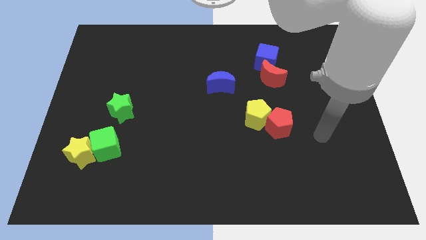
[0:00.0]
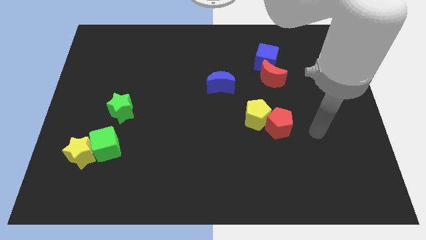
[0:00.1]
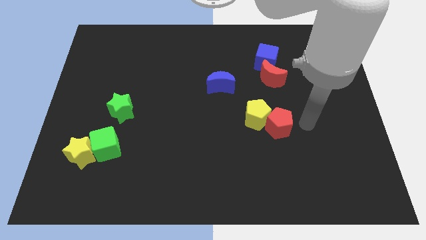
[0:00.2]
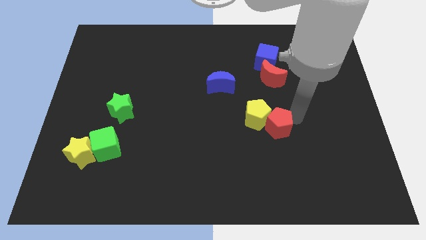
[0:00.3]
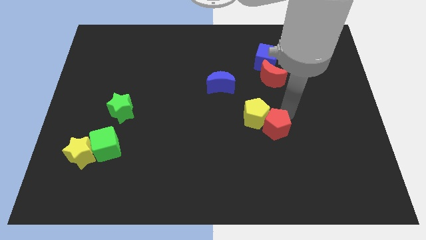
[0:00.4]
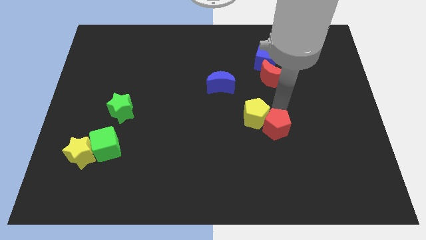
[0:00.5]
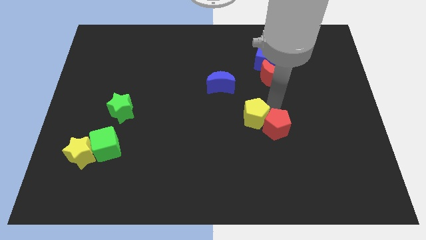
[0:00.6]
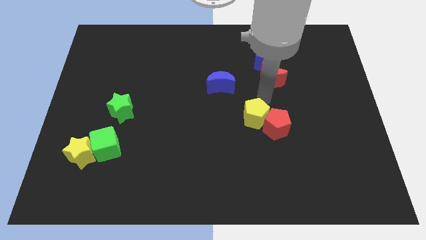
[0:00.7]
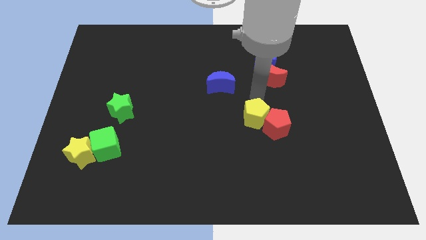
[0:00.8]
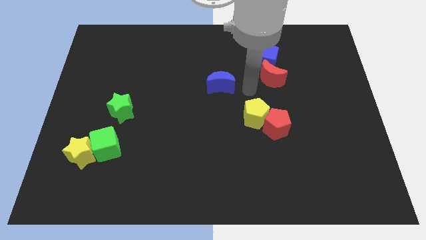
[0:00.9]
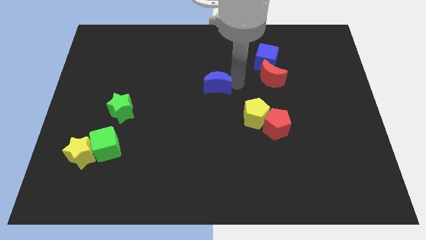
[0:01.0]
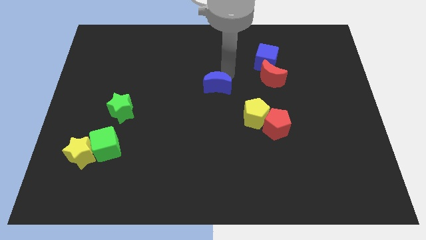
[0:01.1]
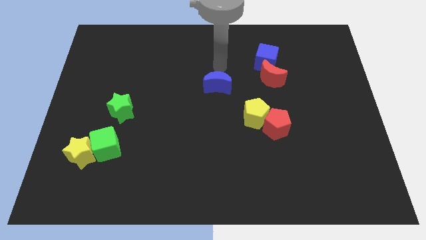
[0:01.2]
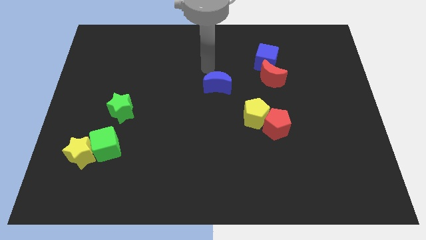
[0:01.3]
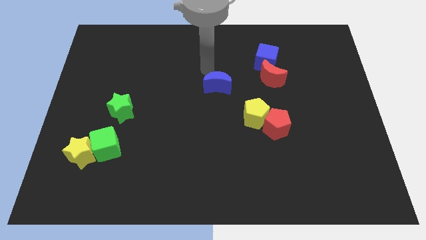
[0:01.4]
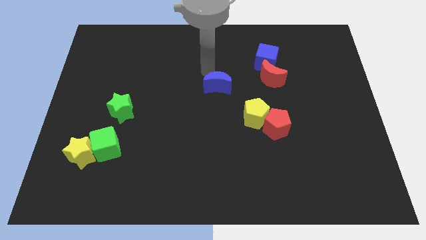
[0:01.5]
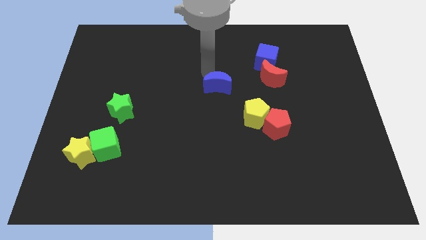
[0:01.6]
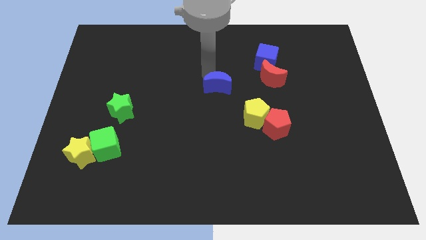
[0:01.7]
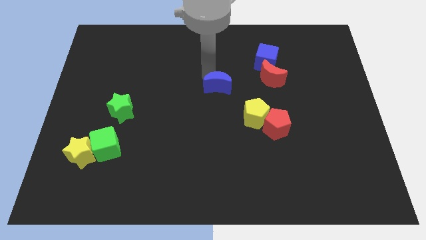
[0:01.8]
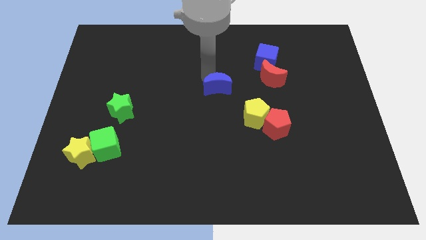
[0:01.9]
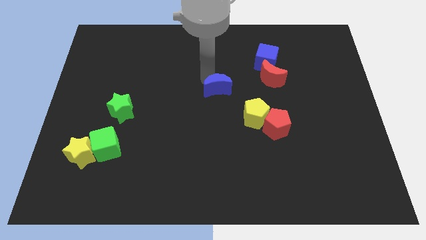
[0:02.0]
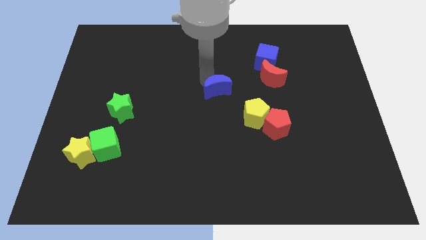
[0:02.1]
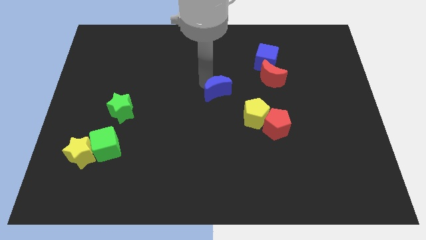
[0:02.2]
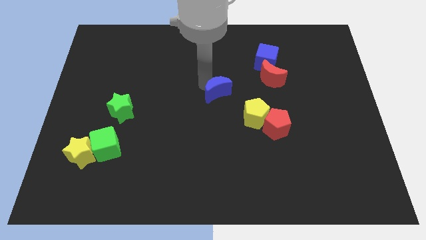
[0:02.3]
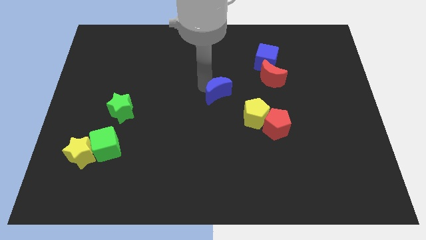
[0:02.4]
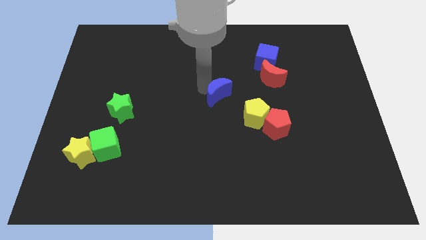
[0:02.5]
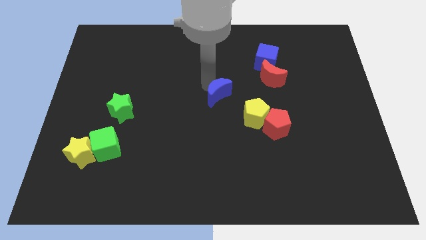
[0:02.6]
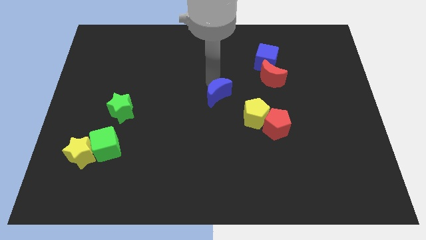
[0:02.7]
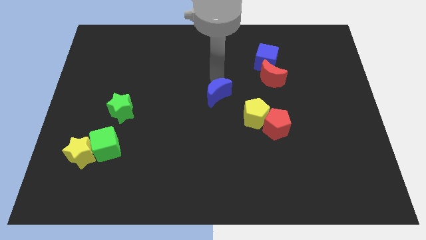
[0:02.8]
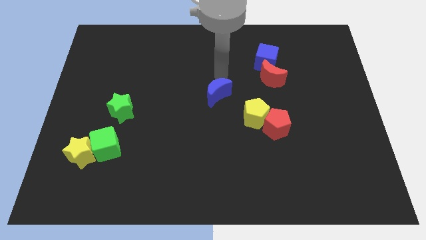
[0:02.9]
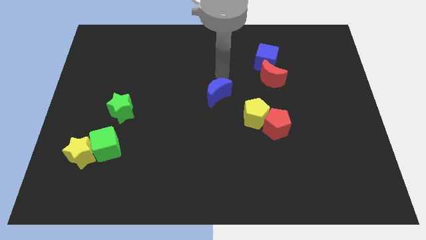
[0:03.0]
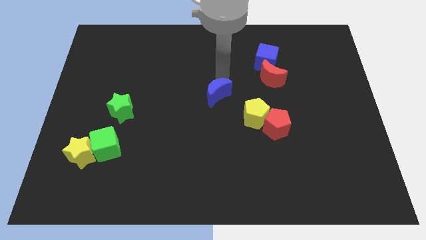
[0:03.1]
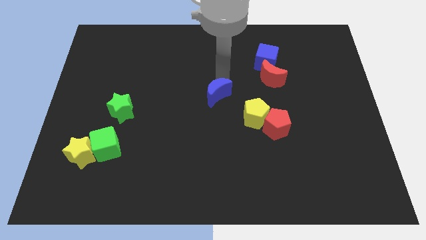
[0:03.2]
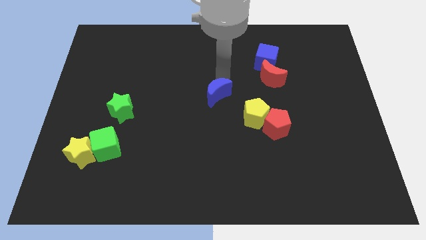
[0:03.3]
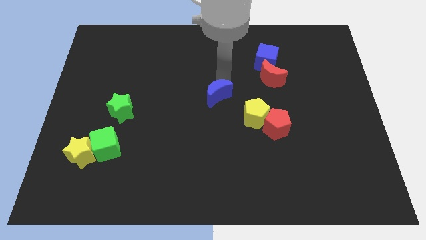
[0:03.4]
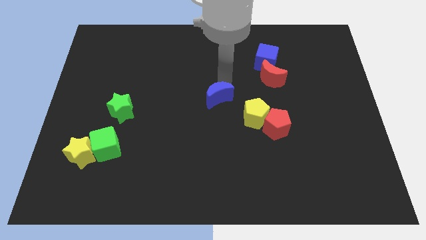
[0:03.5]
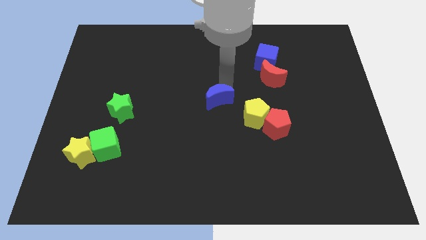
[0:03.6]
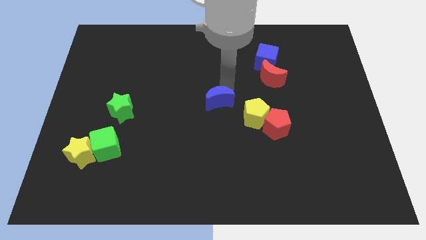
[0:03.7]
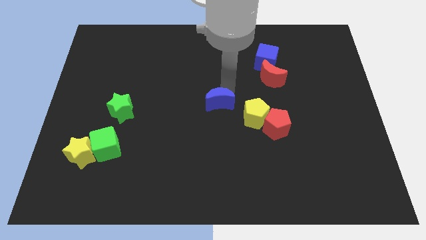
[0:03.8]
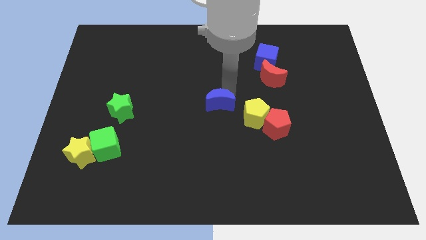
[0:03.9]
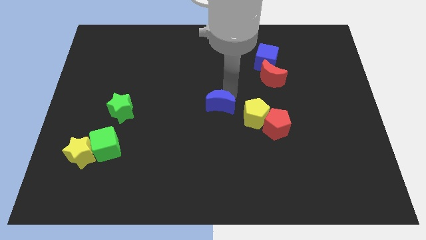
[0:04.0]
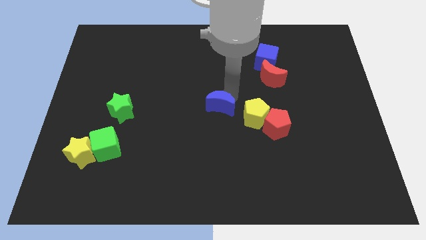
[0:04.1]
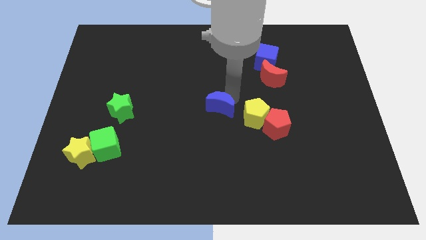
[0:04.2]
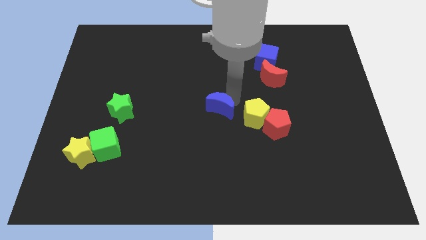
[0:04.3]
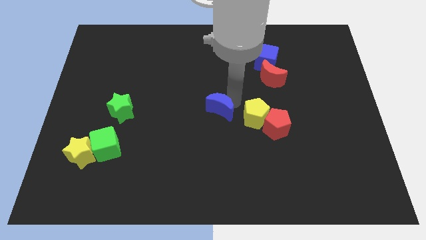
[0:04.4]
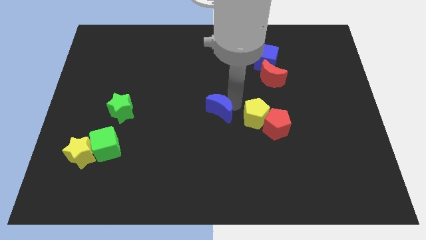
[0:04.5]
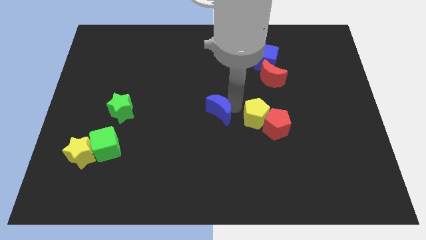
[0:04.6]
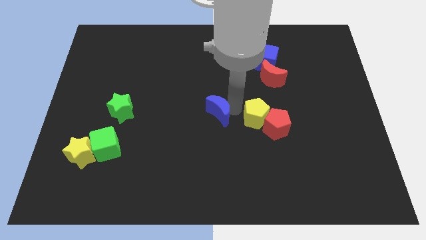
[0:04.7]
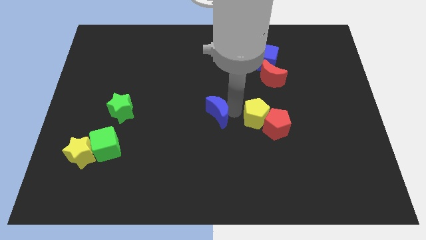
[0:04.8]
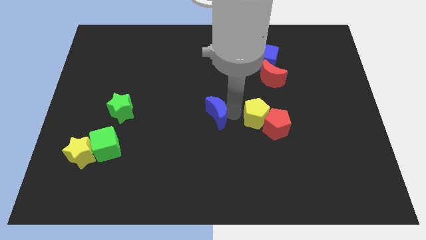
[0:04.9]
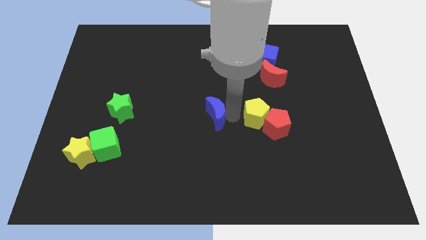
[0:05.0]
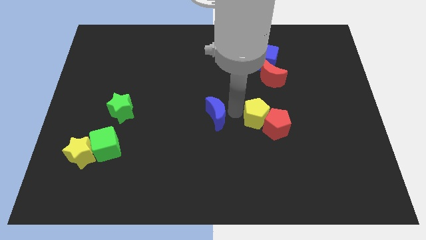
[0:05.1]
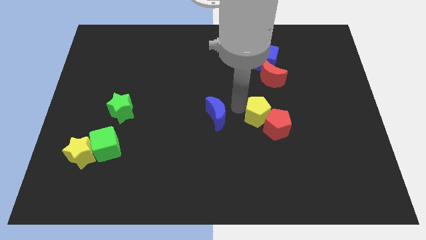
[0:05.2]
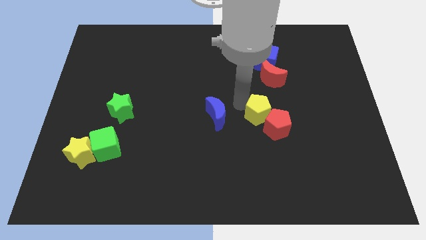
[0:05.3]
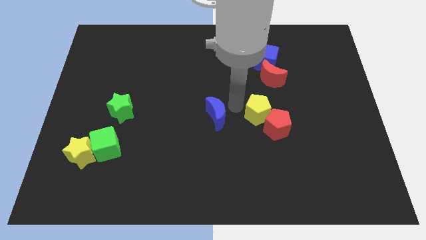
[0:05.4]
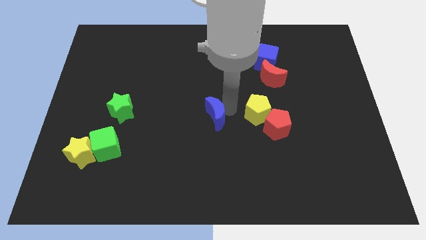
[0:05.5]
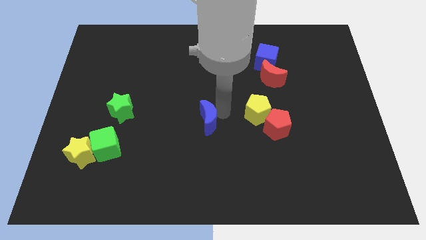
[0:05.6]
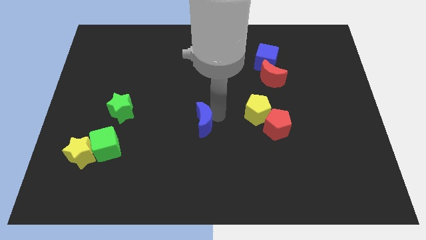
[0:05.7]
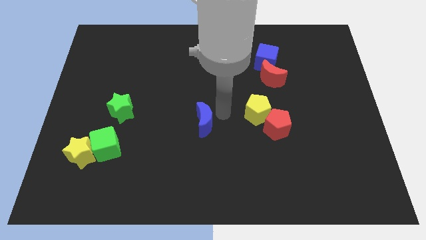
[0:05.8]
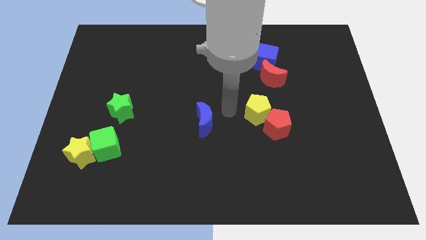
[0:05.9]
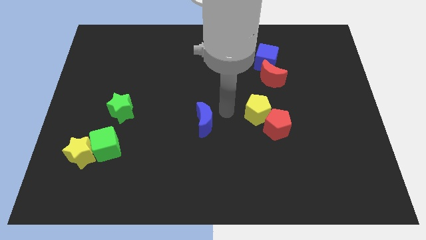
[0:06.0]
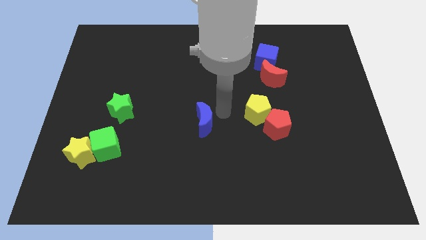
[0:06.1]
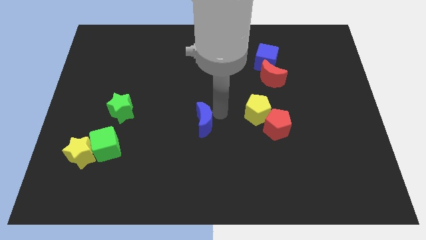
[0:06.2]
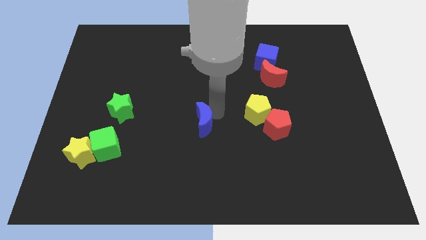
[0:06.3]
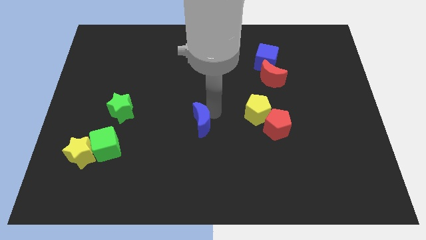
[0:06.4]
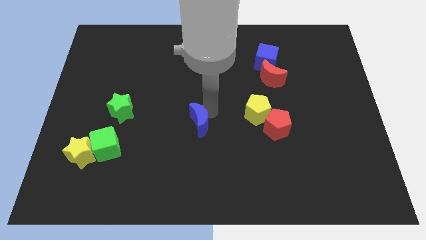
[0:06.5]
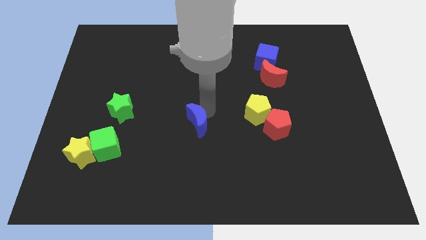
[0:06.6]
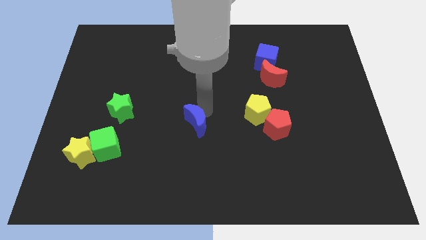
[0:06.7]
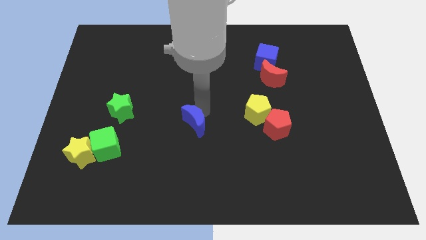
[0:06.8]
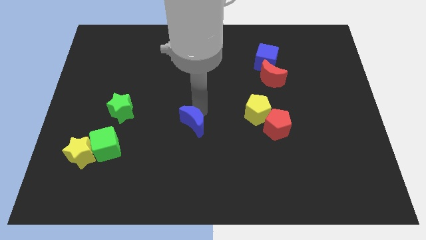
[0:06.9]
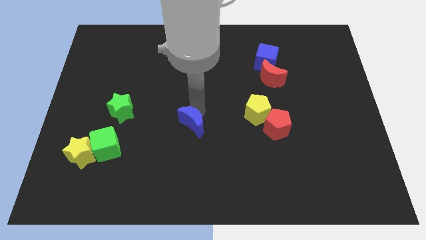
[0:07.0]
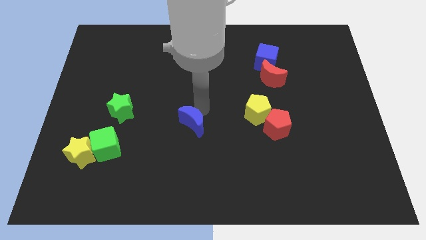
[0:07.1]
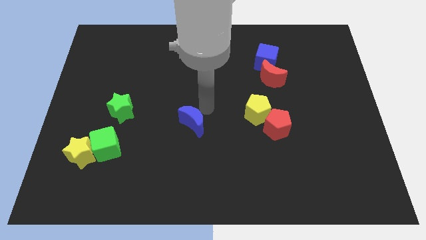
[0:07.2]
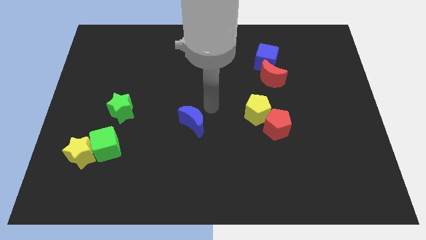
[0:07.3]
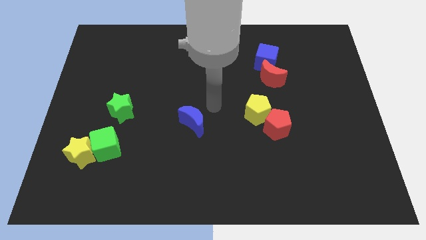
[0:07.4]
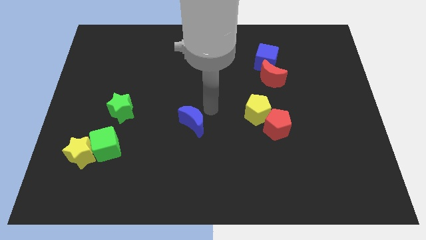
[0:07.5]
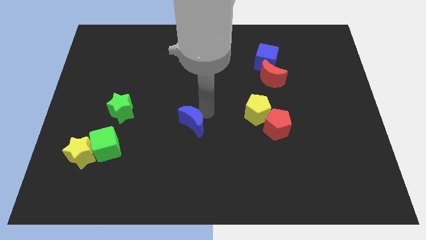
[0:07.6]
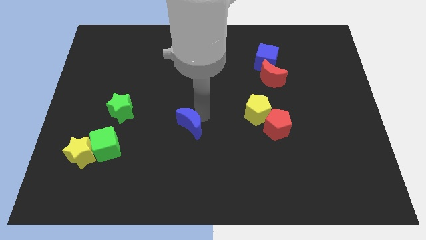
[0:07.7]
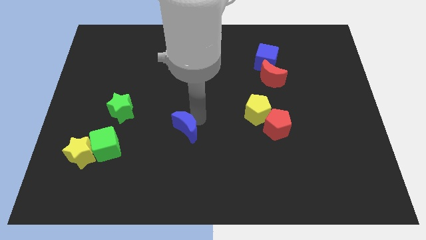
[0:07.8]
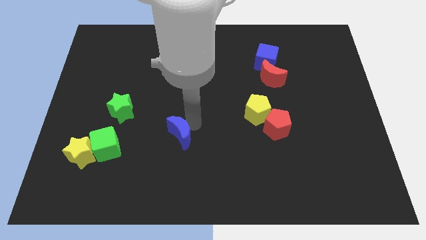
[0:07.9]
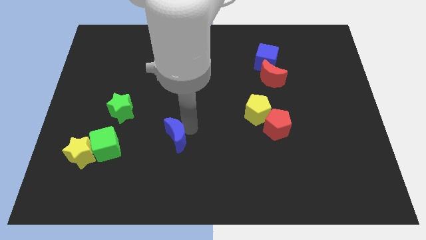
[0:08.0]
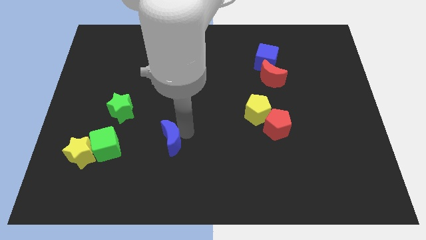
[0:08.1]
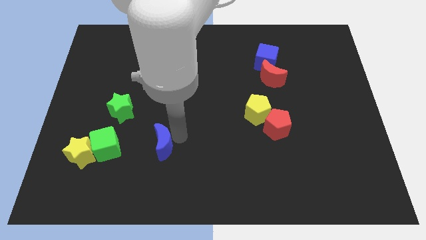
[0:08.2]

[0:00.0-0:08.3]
slide the blue moon downwards and to the left
